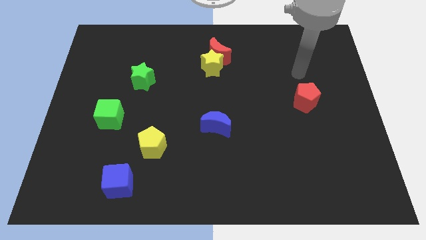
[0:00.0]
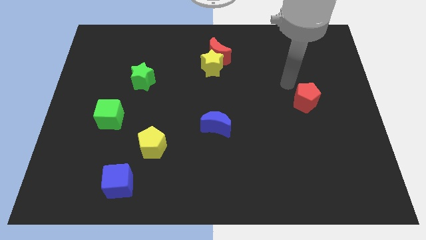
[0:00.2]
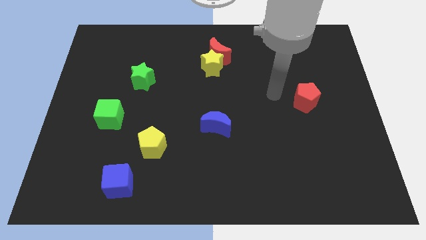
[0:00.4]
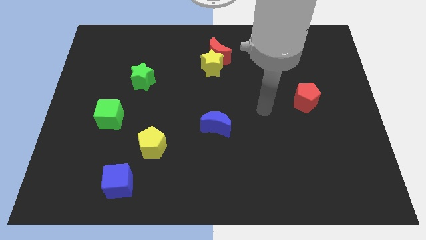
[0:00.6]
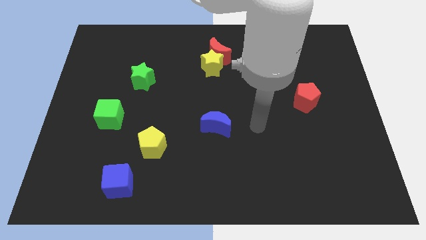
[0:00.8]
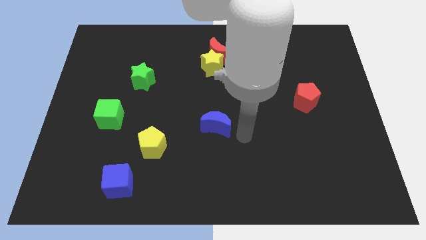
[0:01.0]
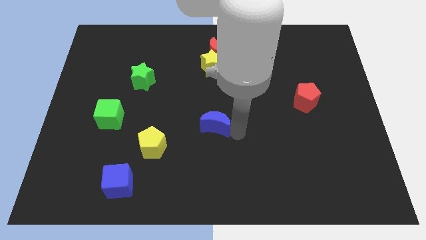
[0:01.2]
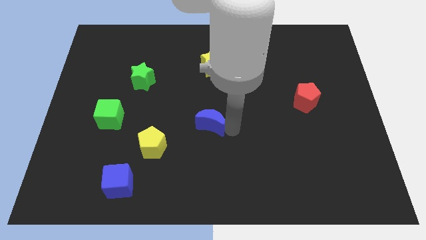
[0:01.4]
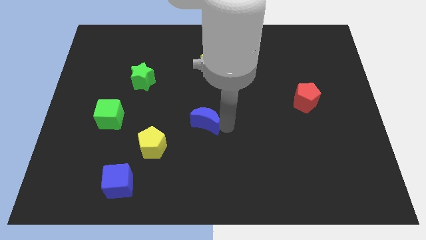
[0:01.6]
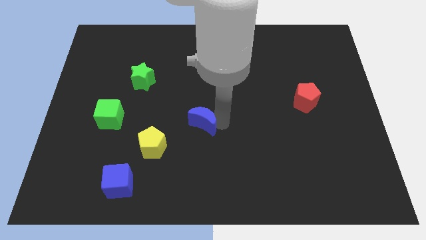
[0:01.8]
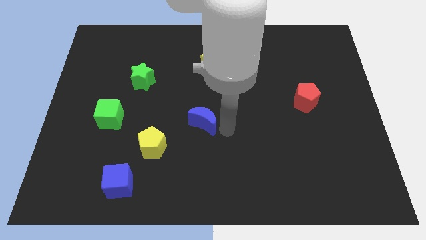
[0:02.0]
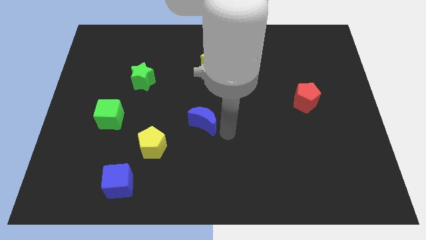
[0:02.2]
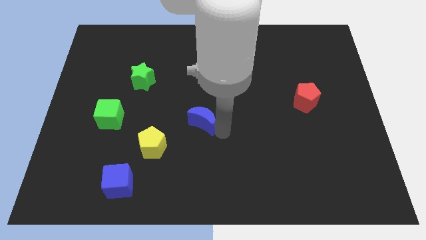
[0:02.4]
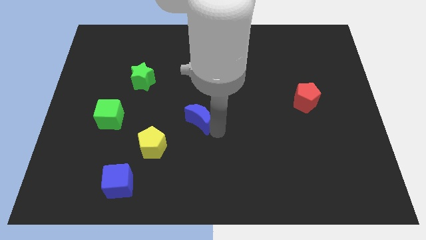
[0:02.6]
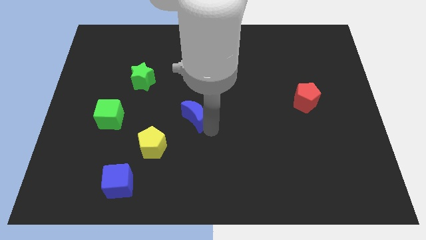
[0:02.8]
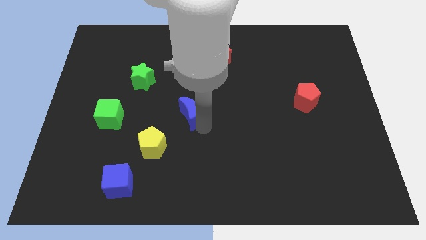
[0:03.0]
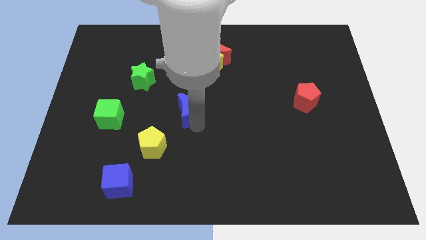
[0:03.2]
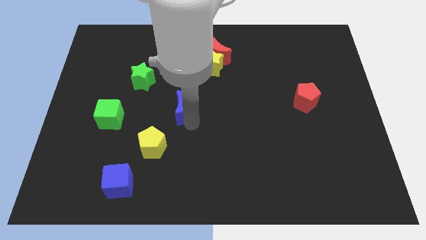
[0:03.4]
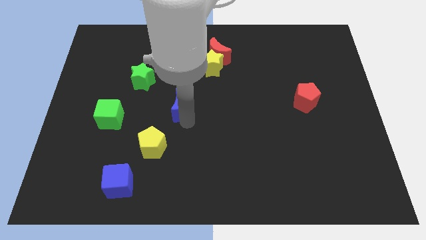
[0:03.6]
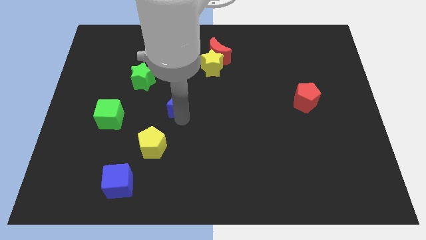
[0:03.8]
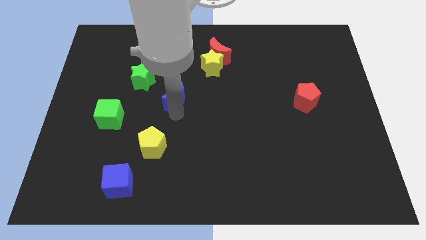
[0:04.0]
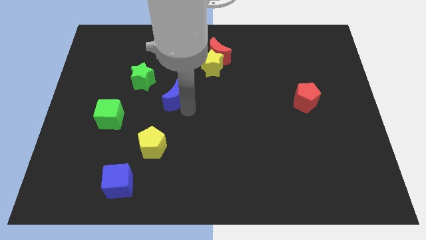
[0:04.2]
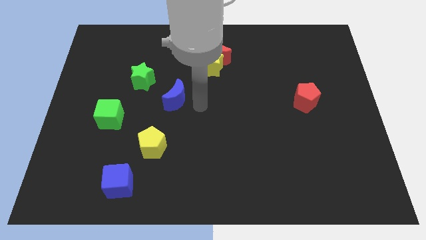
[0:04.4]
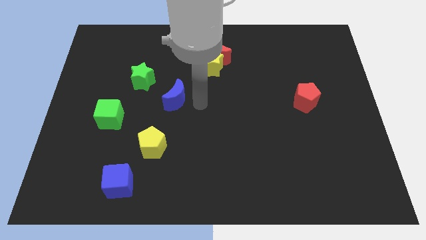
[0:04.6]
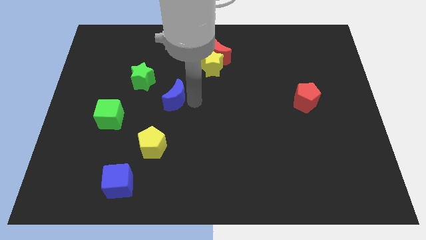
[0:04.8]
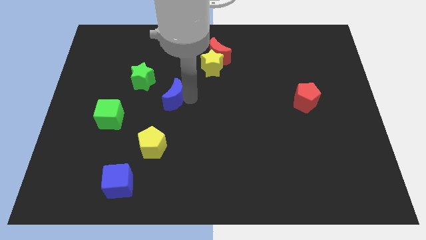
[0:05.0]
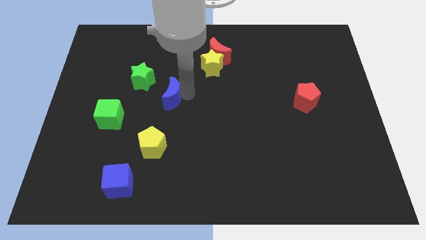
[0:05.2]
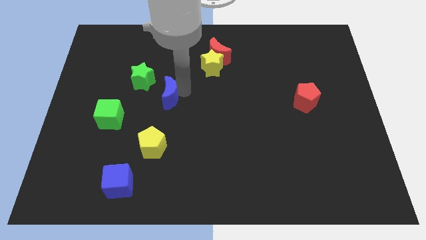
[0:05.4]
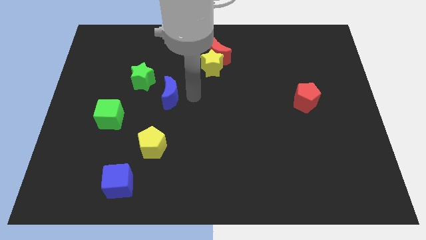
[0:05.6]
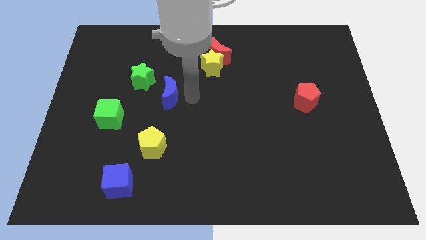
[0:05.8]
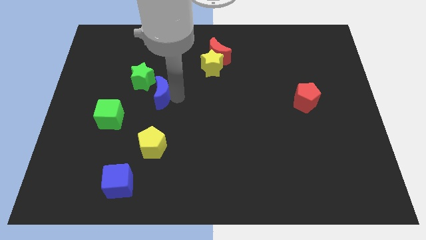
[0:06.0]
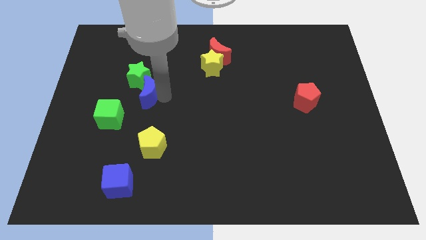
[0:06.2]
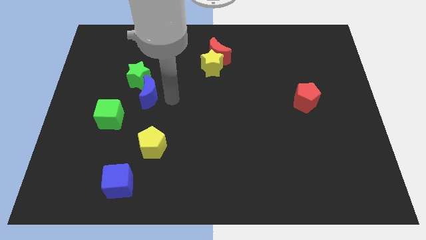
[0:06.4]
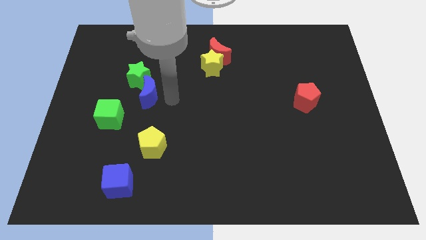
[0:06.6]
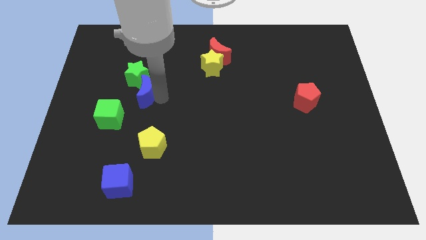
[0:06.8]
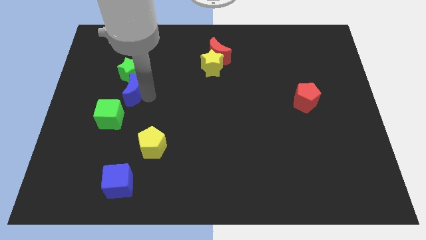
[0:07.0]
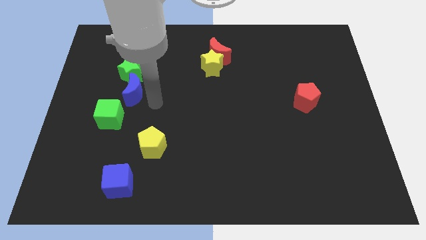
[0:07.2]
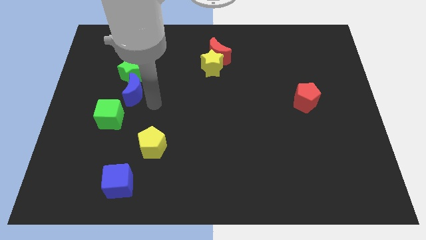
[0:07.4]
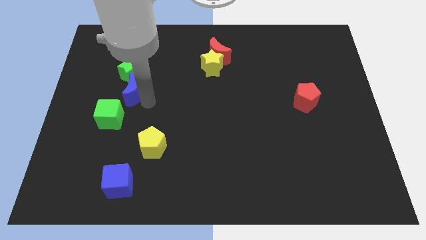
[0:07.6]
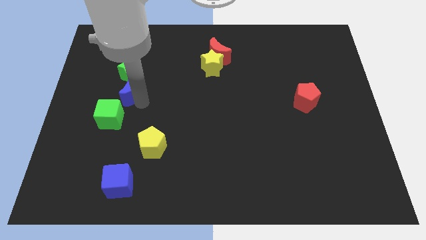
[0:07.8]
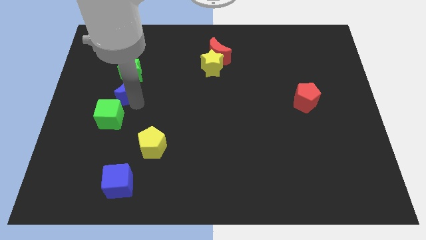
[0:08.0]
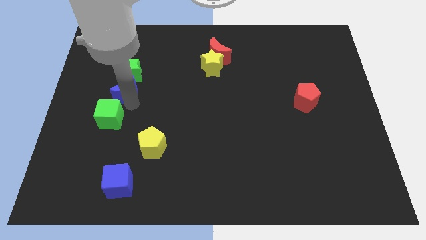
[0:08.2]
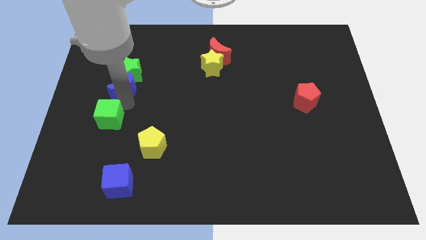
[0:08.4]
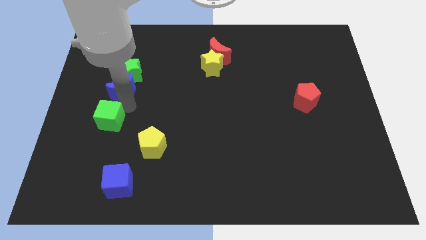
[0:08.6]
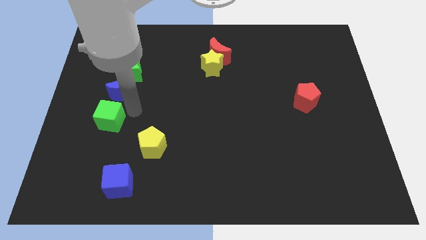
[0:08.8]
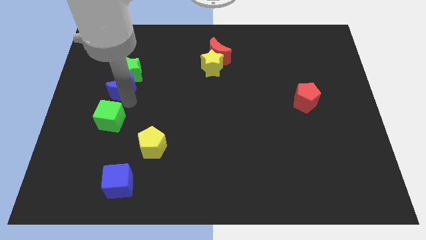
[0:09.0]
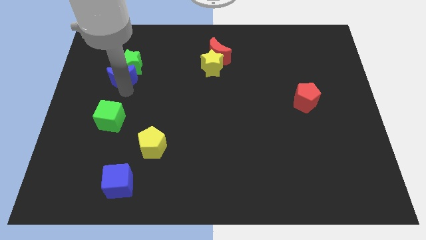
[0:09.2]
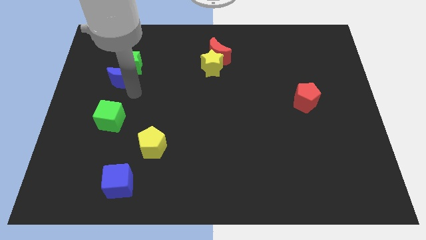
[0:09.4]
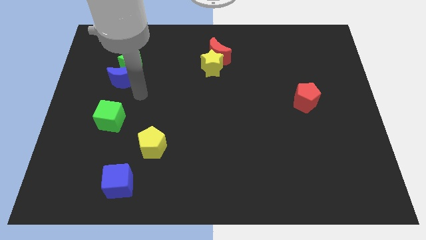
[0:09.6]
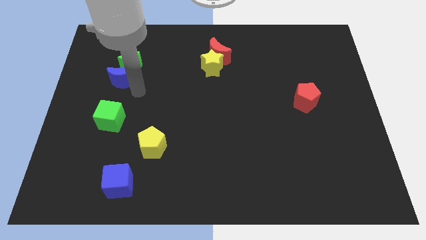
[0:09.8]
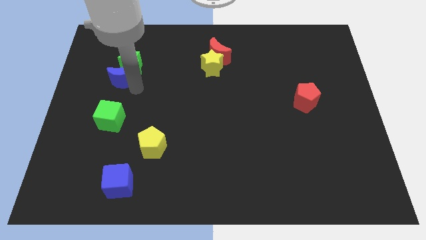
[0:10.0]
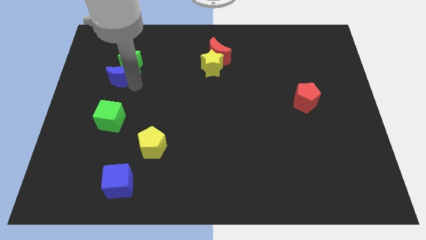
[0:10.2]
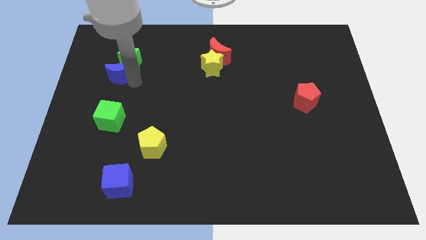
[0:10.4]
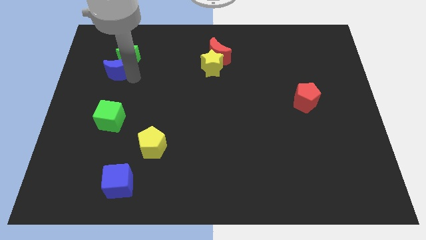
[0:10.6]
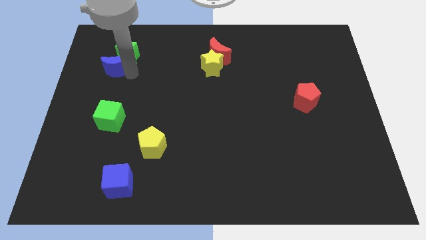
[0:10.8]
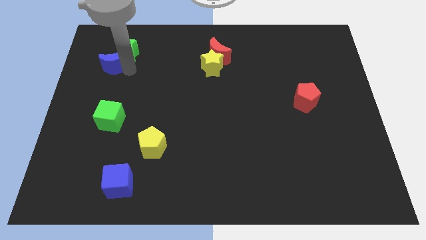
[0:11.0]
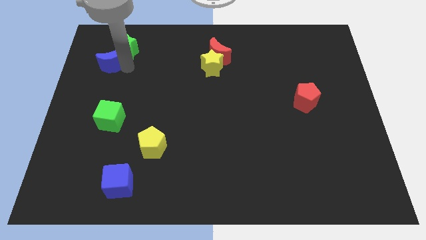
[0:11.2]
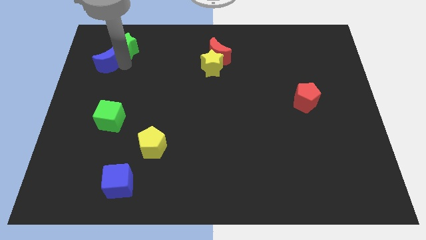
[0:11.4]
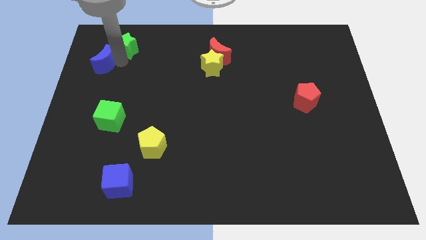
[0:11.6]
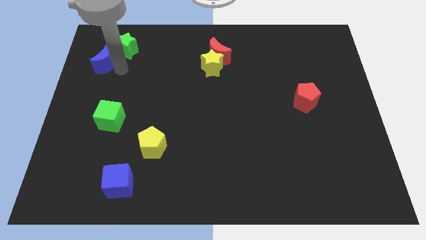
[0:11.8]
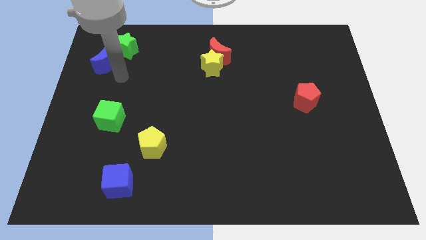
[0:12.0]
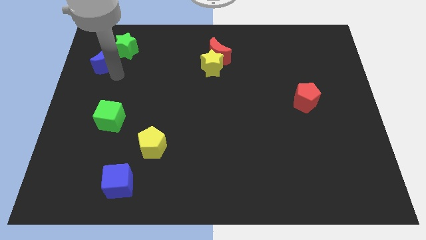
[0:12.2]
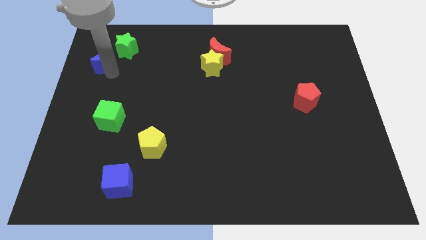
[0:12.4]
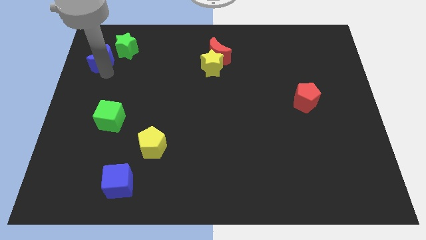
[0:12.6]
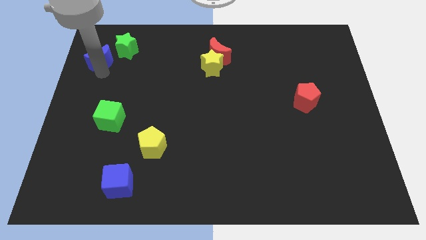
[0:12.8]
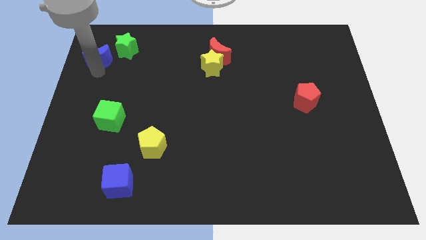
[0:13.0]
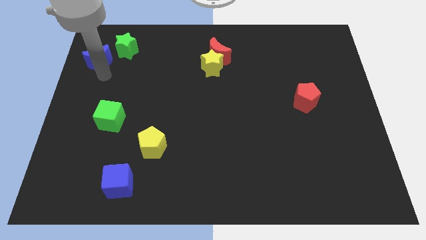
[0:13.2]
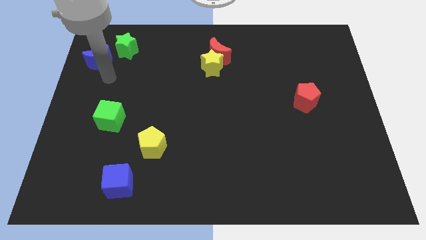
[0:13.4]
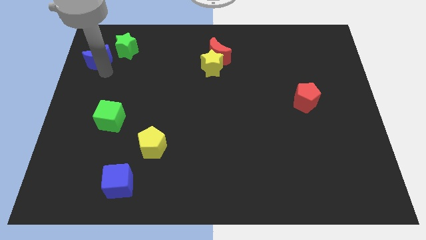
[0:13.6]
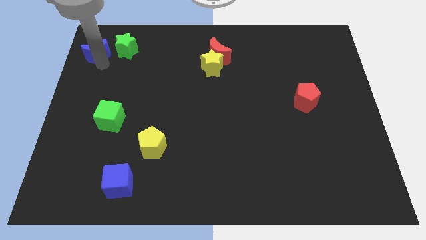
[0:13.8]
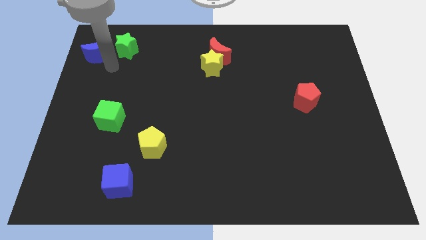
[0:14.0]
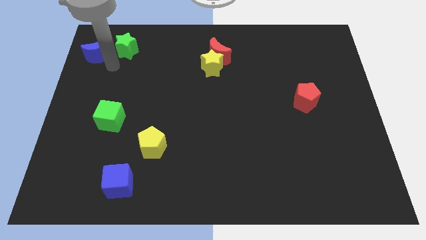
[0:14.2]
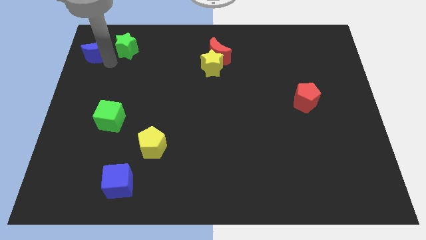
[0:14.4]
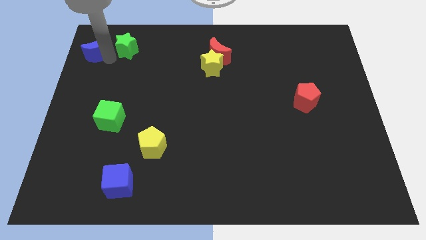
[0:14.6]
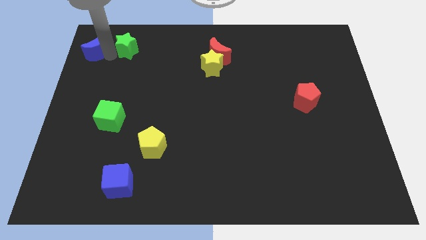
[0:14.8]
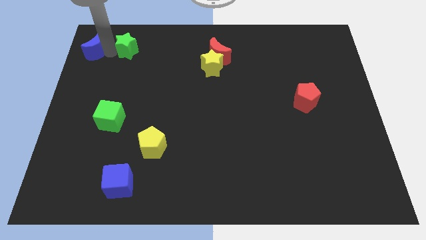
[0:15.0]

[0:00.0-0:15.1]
slide the blue moon to the top left of the board

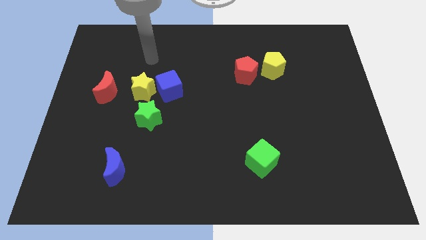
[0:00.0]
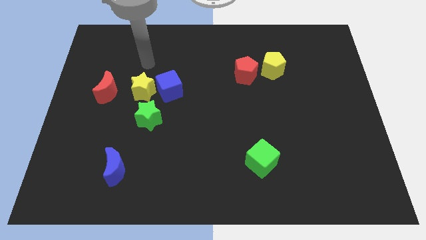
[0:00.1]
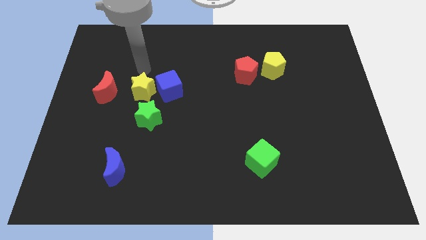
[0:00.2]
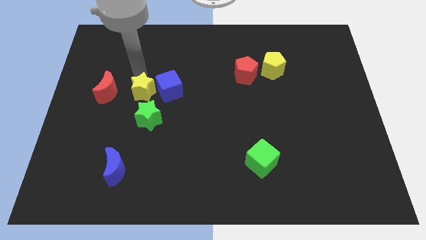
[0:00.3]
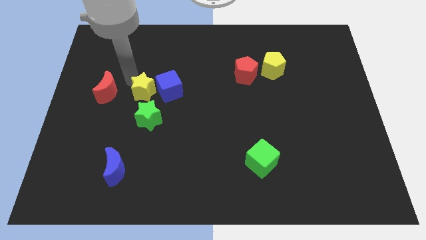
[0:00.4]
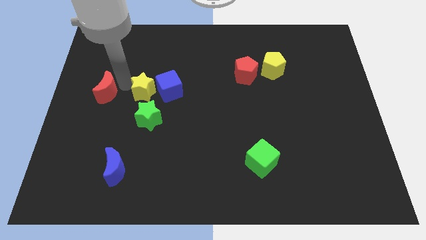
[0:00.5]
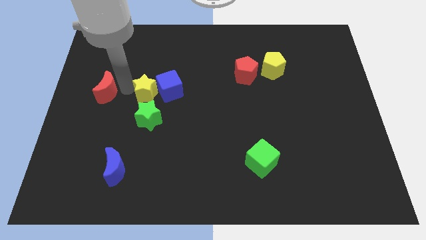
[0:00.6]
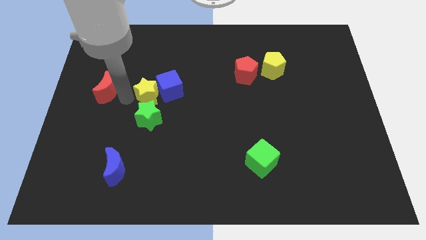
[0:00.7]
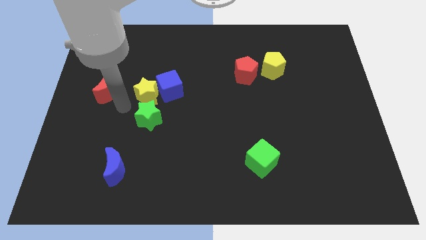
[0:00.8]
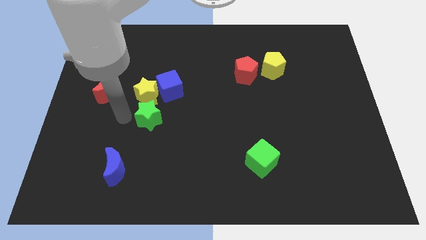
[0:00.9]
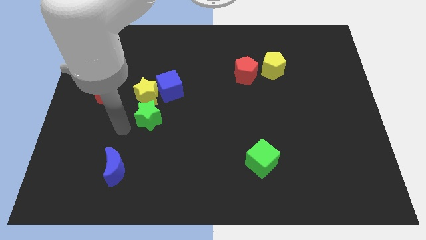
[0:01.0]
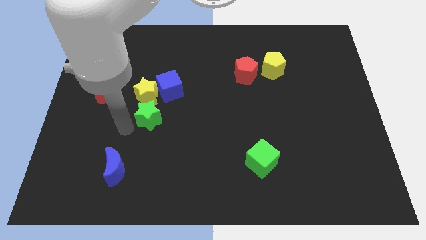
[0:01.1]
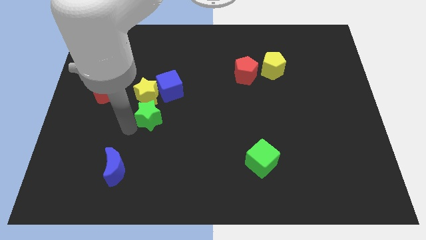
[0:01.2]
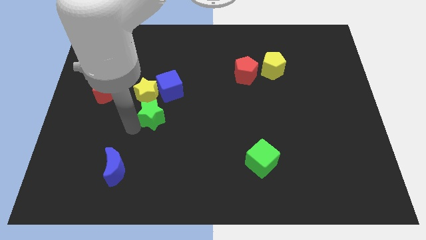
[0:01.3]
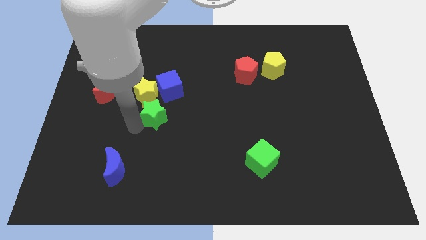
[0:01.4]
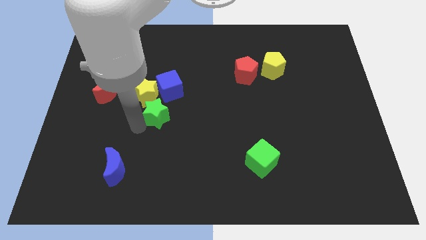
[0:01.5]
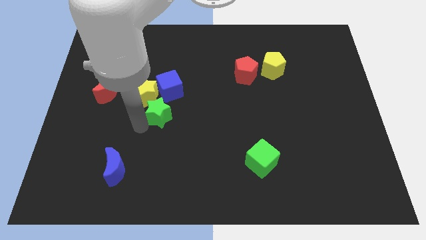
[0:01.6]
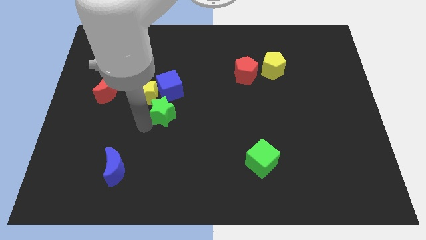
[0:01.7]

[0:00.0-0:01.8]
push the green star to the center of the board
